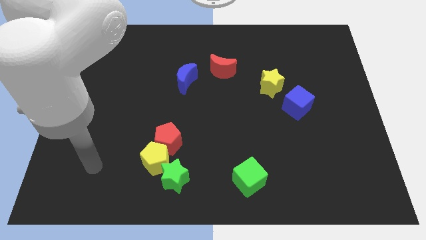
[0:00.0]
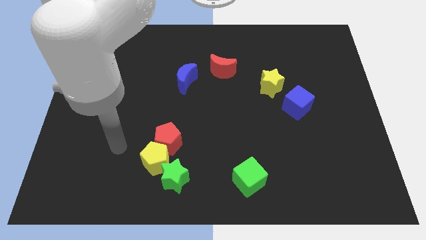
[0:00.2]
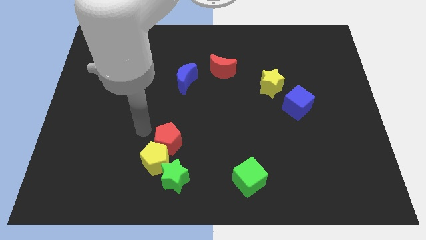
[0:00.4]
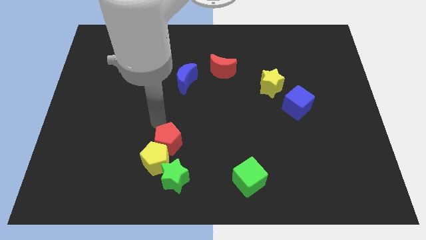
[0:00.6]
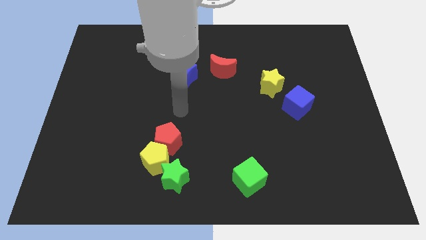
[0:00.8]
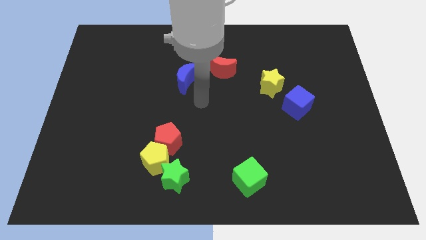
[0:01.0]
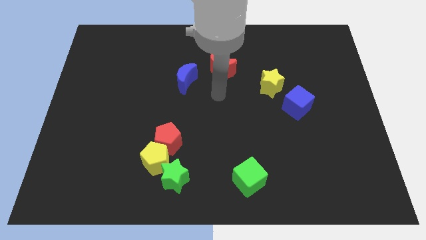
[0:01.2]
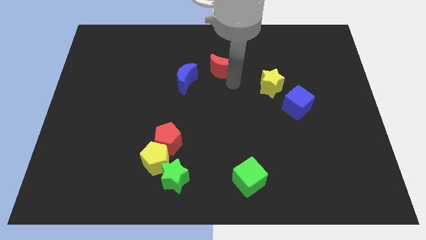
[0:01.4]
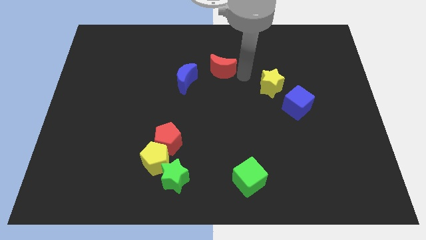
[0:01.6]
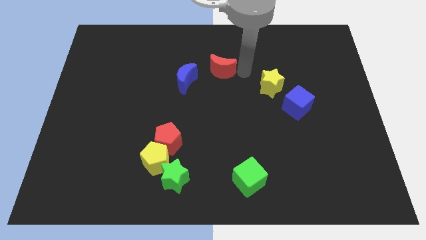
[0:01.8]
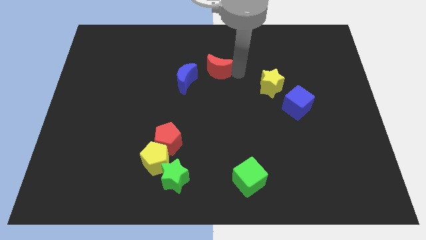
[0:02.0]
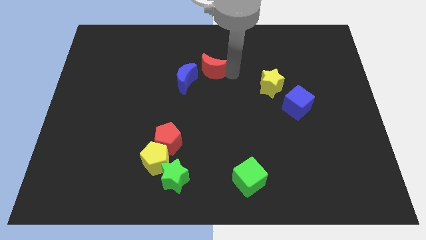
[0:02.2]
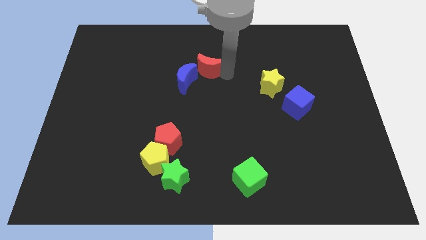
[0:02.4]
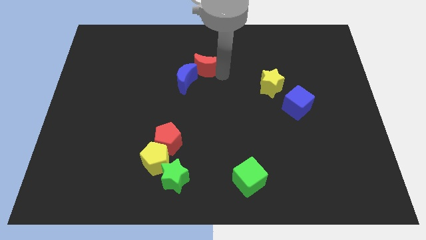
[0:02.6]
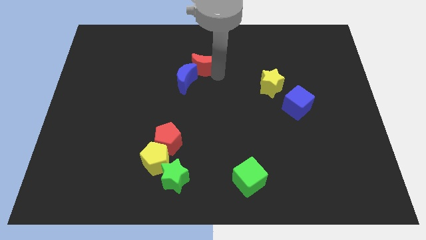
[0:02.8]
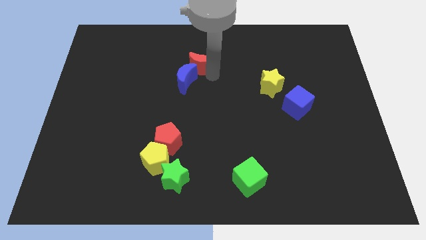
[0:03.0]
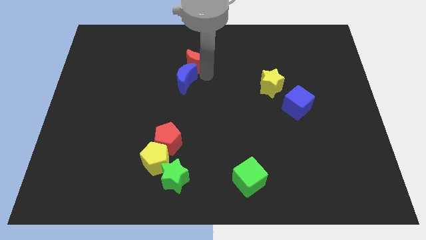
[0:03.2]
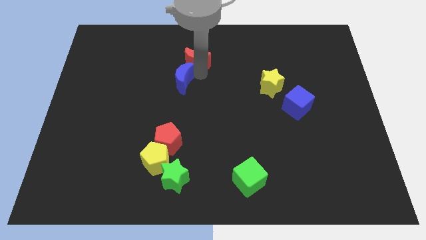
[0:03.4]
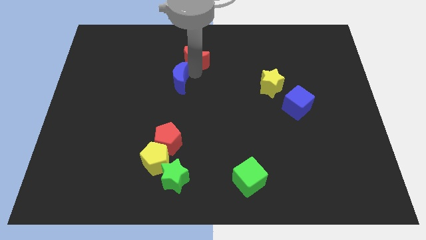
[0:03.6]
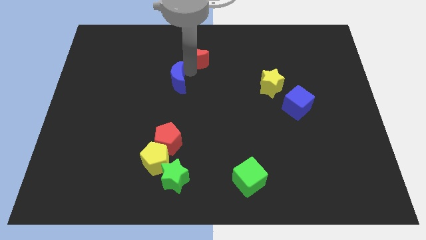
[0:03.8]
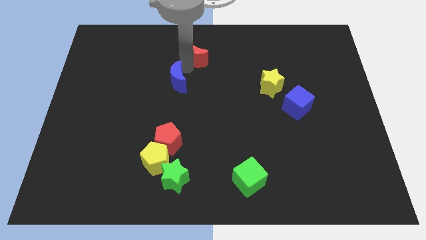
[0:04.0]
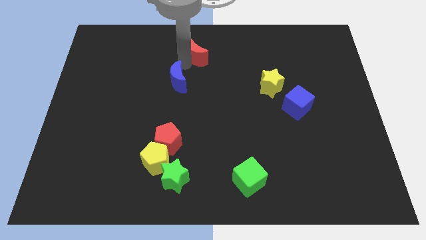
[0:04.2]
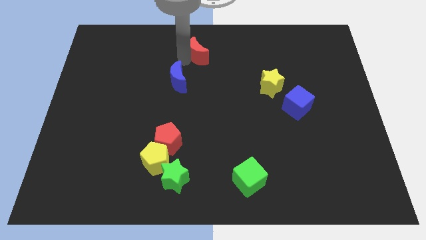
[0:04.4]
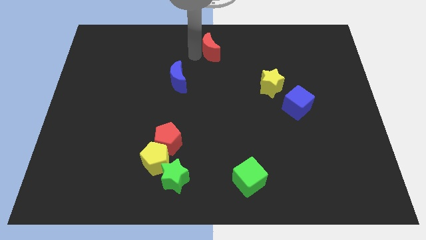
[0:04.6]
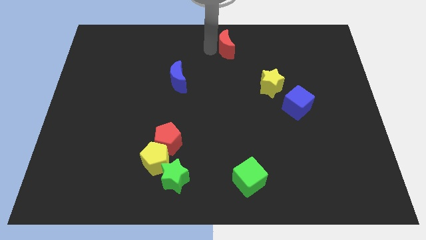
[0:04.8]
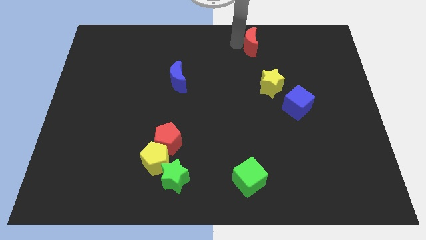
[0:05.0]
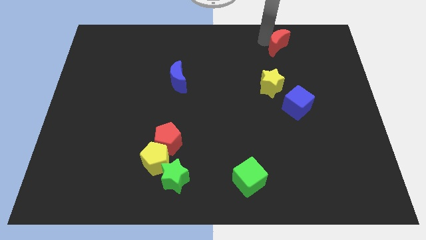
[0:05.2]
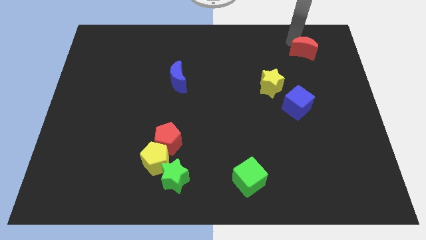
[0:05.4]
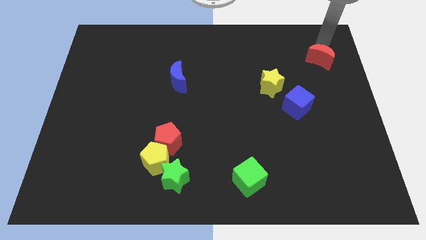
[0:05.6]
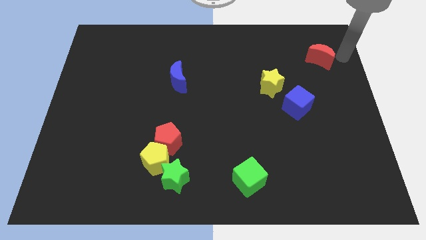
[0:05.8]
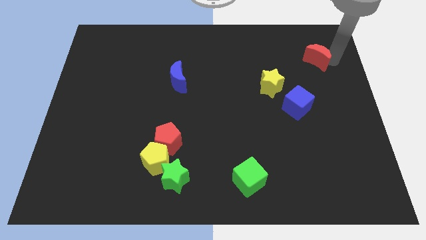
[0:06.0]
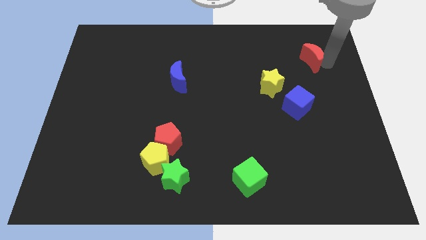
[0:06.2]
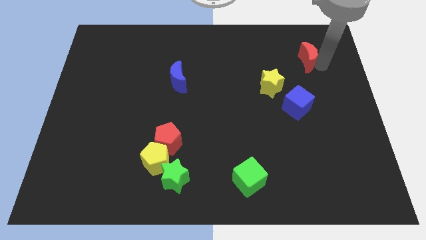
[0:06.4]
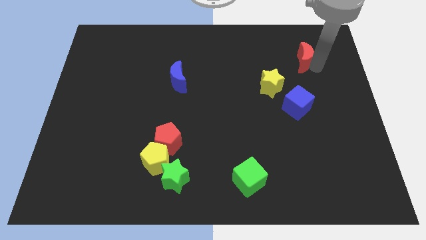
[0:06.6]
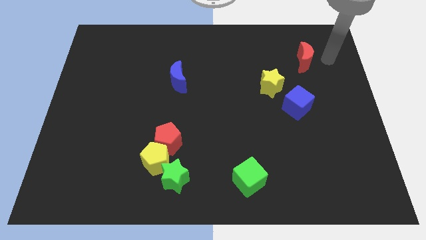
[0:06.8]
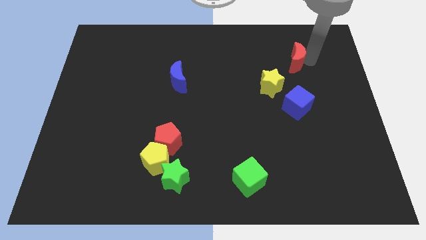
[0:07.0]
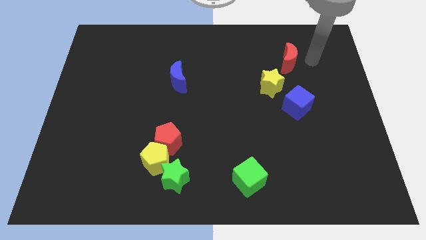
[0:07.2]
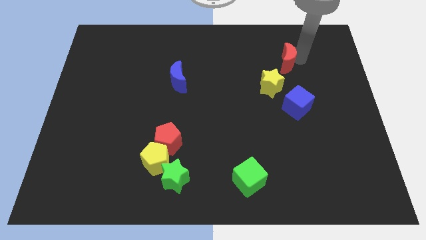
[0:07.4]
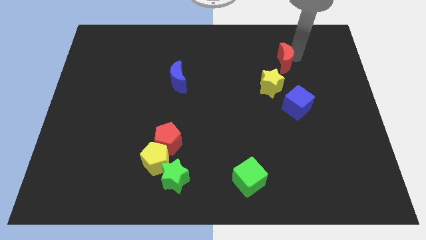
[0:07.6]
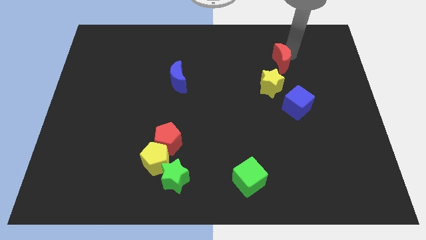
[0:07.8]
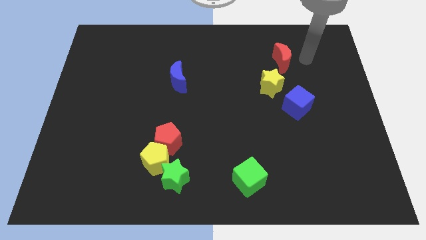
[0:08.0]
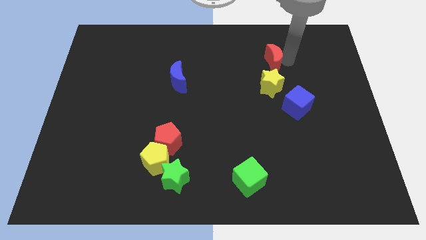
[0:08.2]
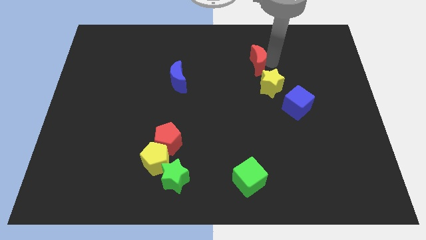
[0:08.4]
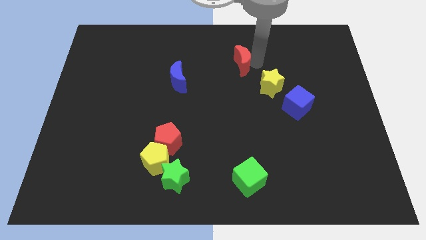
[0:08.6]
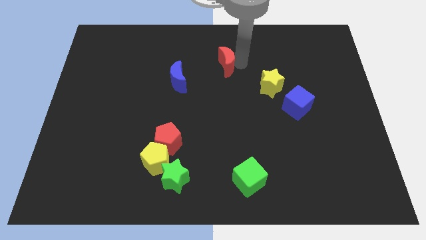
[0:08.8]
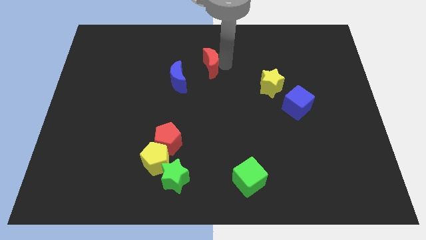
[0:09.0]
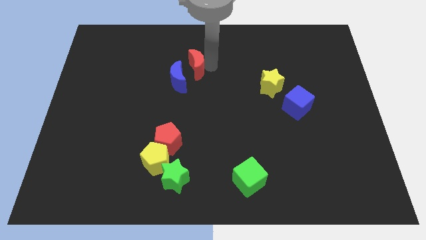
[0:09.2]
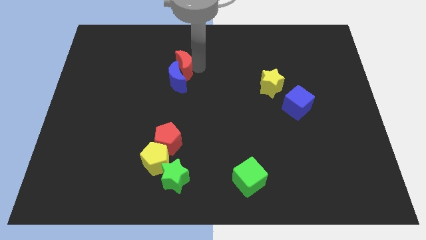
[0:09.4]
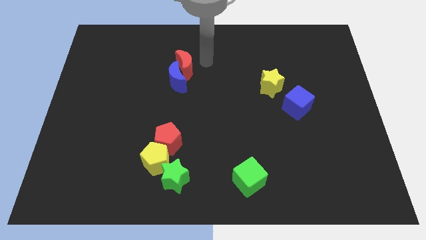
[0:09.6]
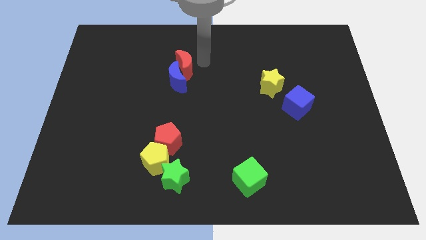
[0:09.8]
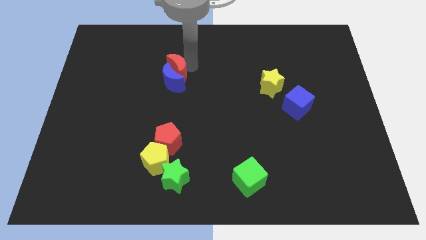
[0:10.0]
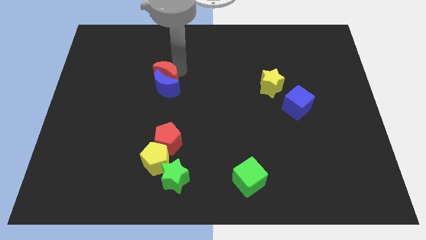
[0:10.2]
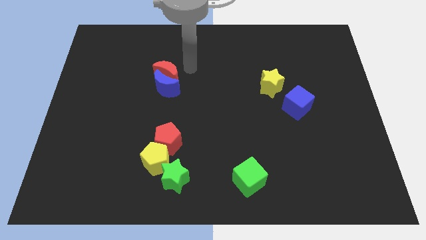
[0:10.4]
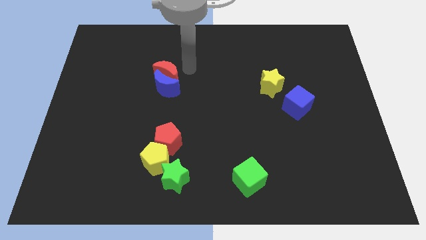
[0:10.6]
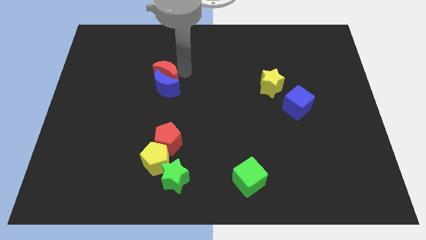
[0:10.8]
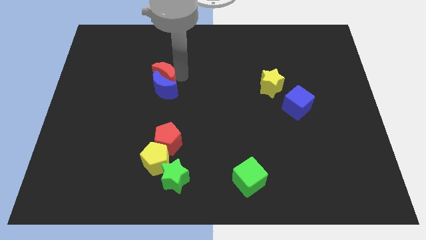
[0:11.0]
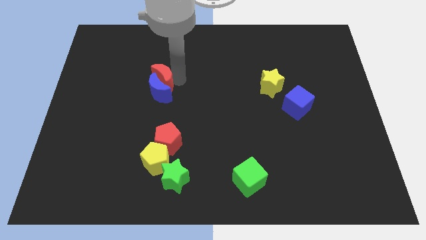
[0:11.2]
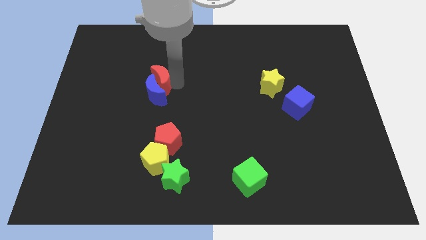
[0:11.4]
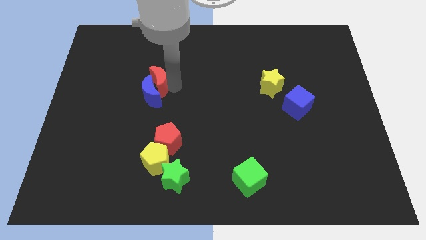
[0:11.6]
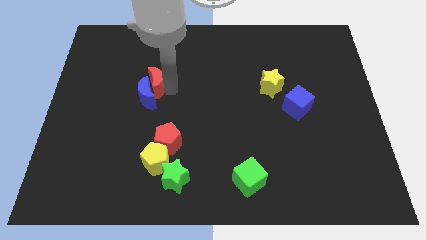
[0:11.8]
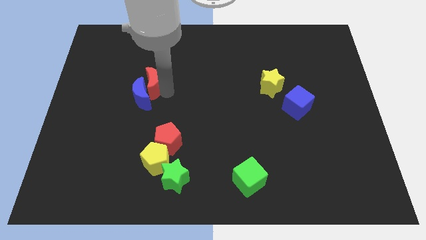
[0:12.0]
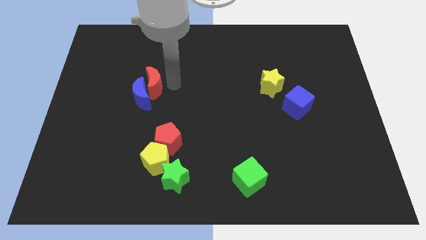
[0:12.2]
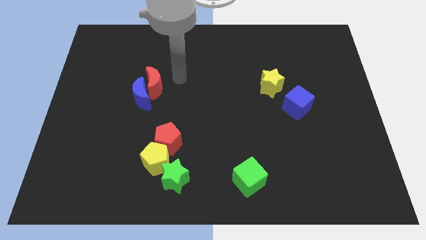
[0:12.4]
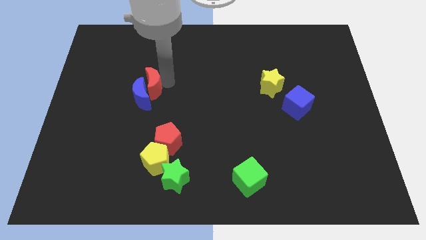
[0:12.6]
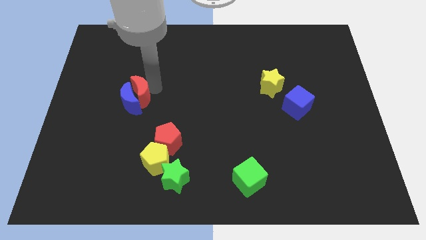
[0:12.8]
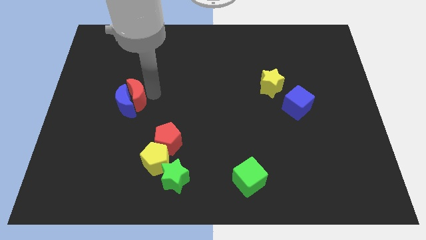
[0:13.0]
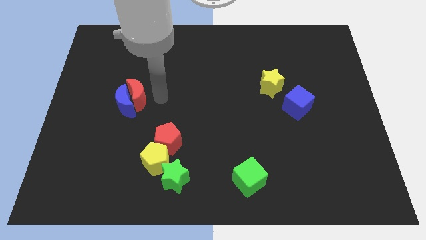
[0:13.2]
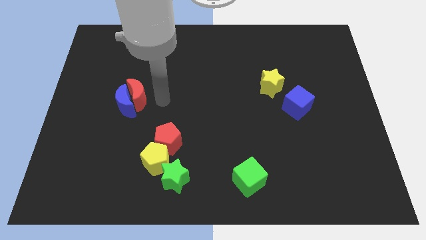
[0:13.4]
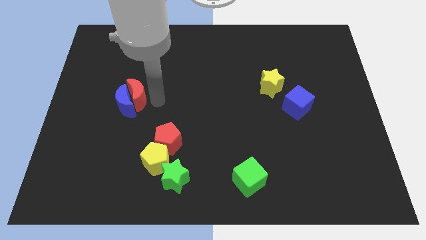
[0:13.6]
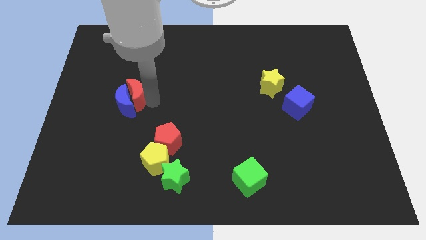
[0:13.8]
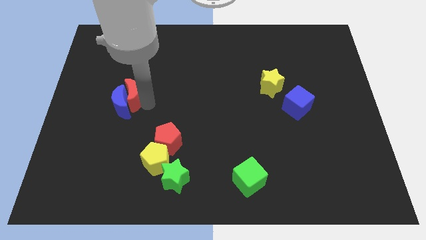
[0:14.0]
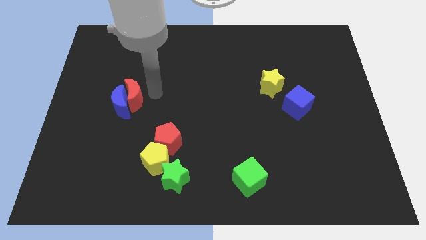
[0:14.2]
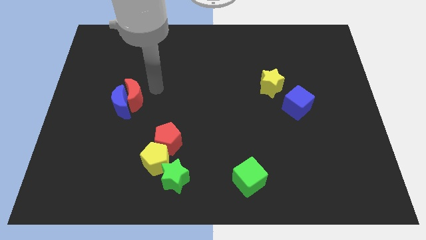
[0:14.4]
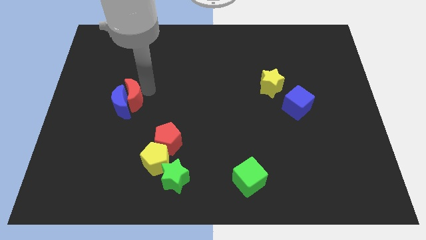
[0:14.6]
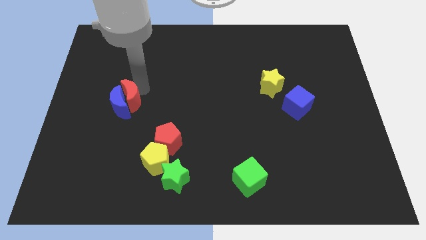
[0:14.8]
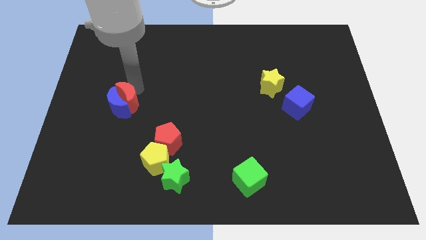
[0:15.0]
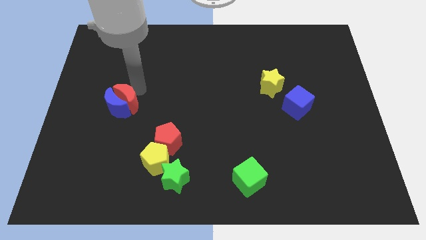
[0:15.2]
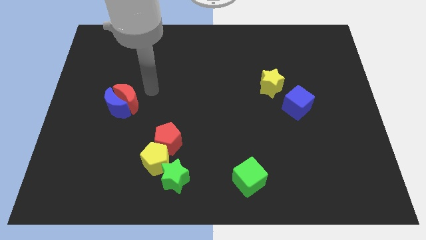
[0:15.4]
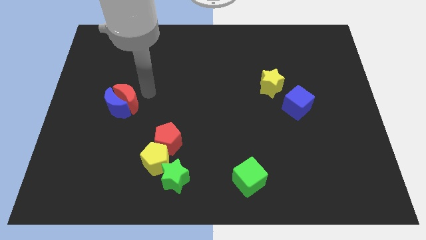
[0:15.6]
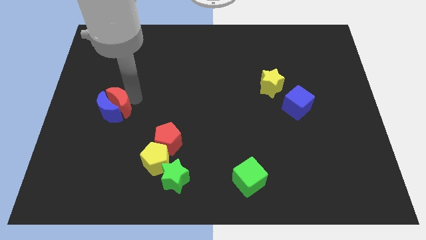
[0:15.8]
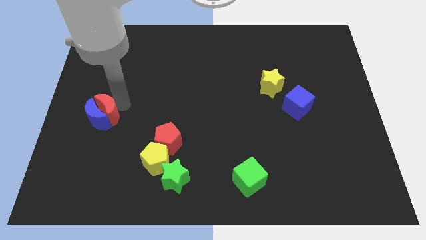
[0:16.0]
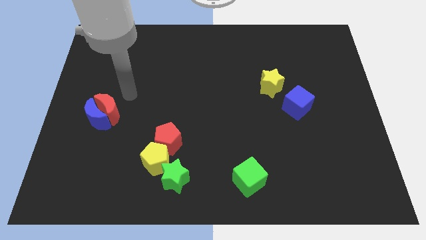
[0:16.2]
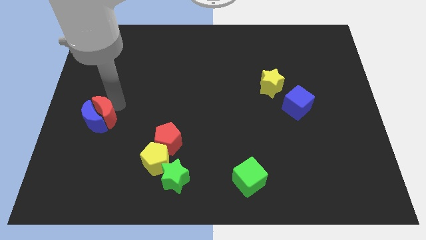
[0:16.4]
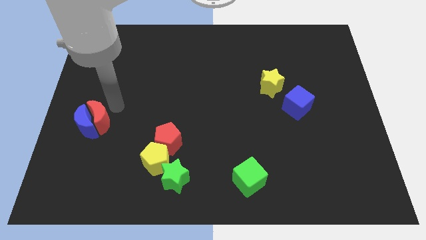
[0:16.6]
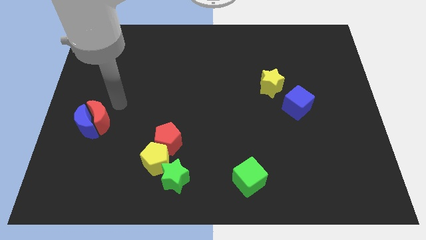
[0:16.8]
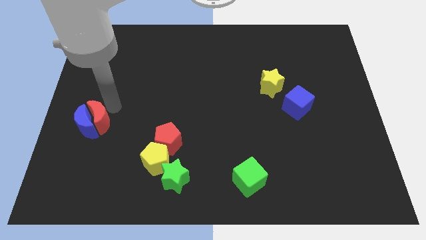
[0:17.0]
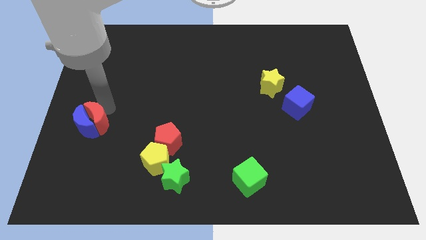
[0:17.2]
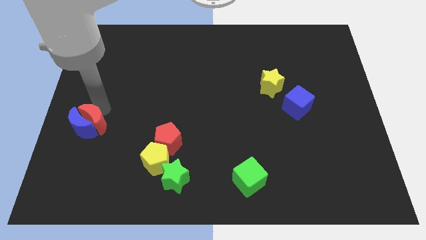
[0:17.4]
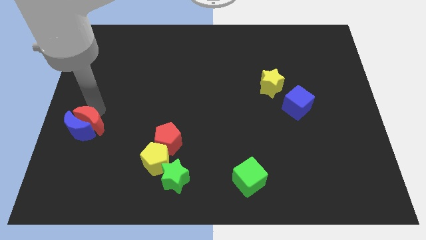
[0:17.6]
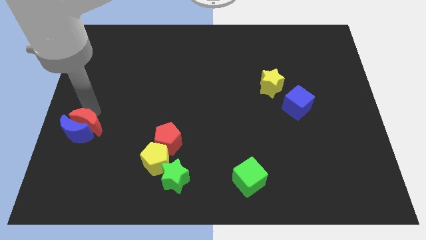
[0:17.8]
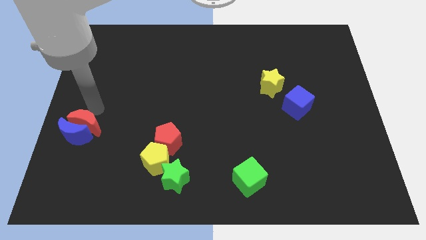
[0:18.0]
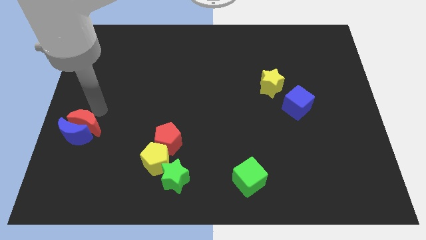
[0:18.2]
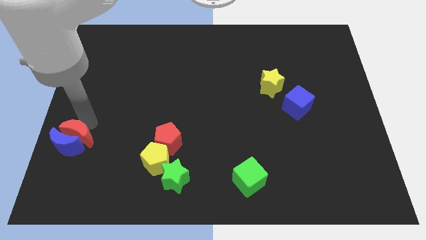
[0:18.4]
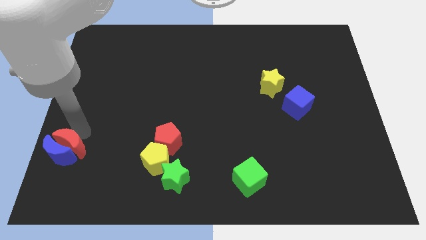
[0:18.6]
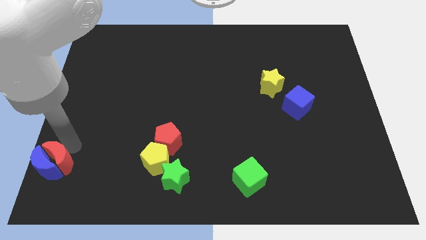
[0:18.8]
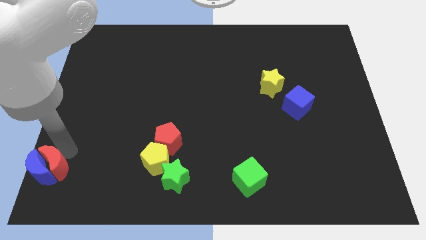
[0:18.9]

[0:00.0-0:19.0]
slide the red moon to the bottom left corner
